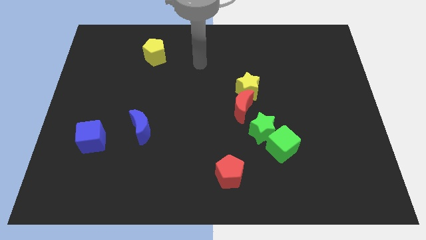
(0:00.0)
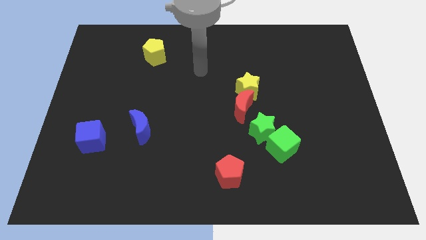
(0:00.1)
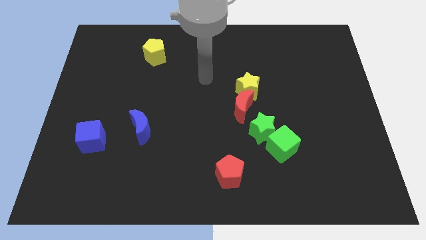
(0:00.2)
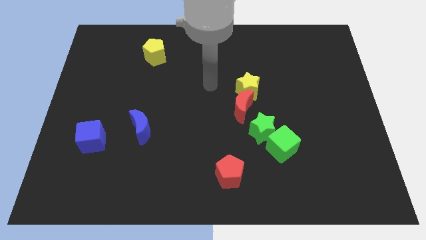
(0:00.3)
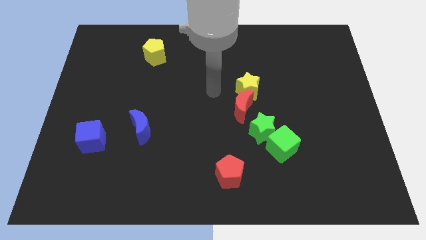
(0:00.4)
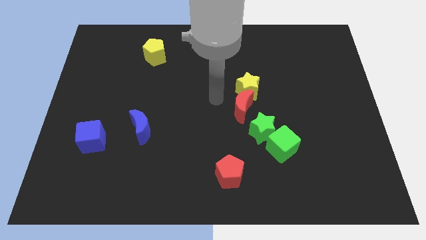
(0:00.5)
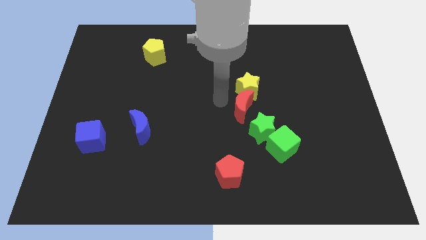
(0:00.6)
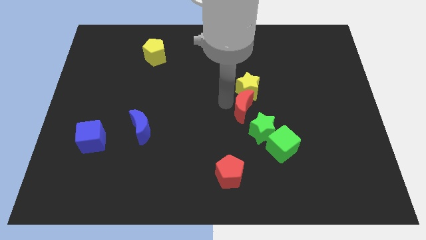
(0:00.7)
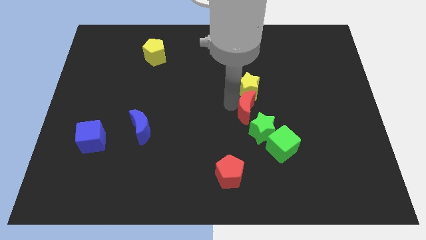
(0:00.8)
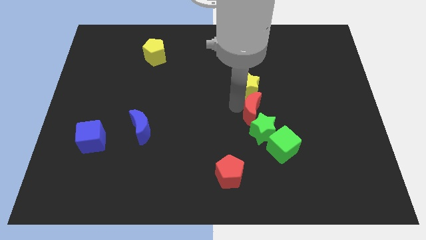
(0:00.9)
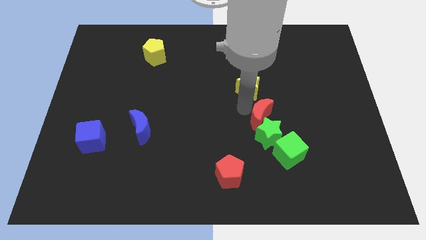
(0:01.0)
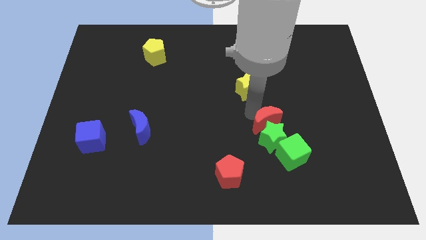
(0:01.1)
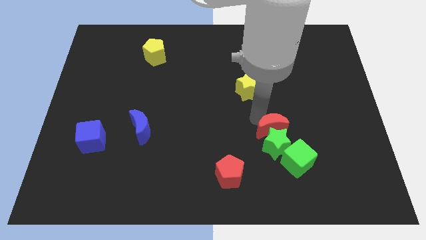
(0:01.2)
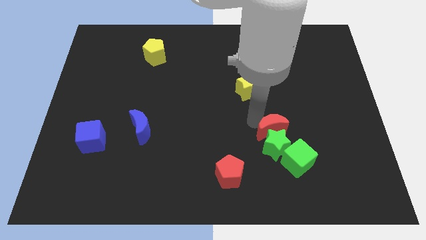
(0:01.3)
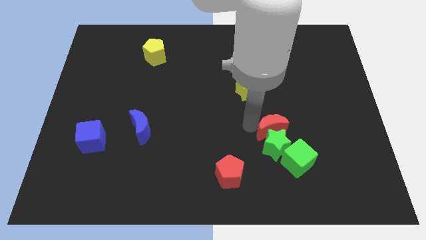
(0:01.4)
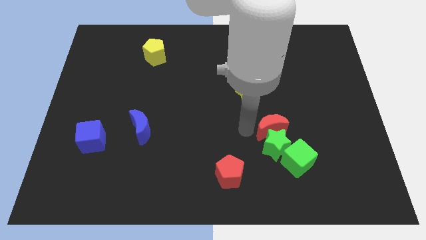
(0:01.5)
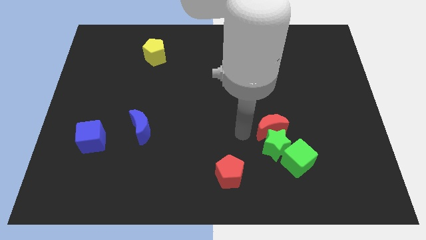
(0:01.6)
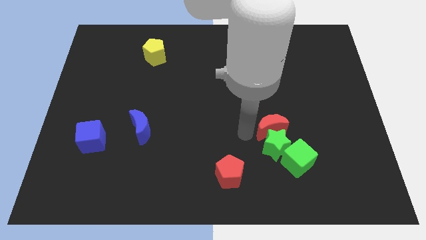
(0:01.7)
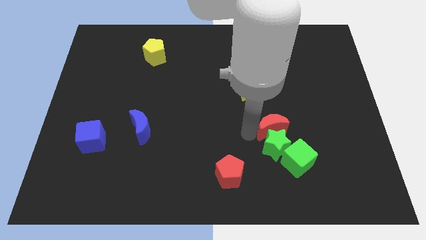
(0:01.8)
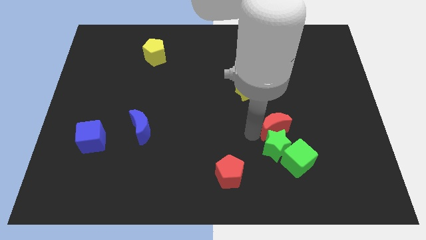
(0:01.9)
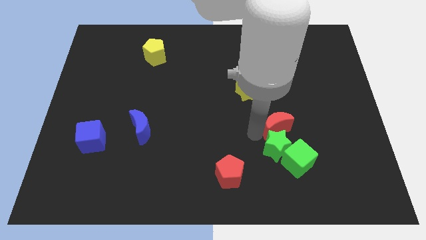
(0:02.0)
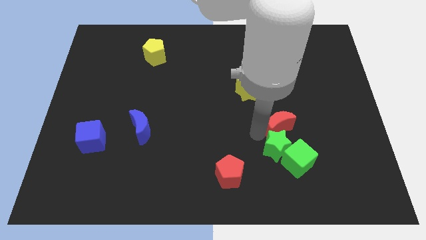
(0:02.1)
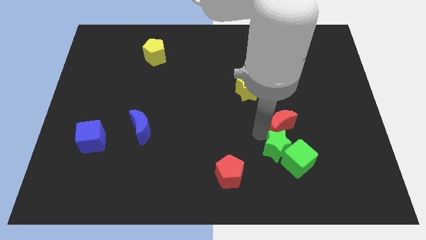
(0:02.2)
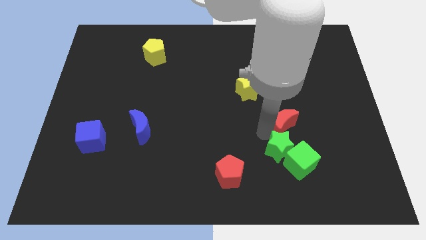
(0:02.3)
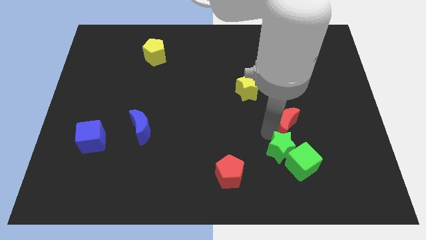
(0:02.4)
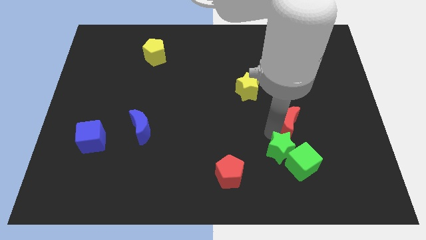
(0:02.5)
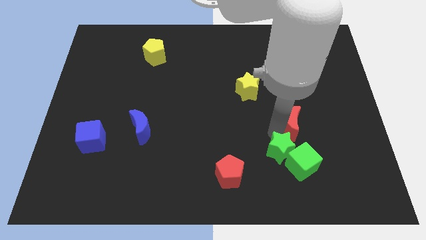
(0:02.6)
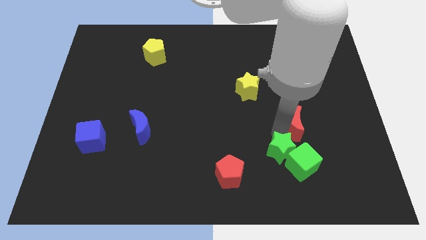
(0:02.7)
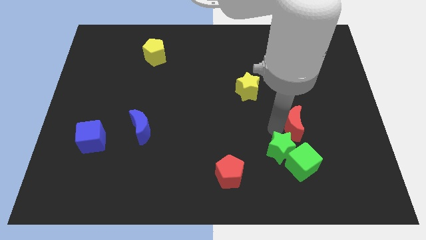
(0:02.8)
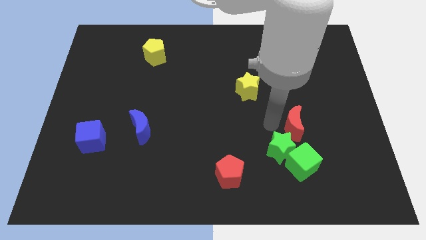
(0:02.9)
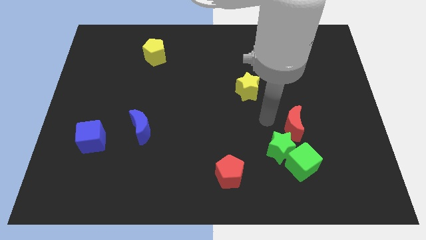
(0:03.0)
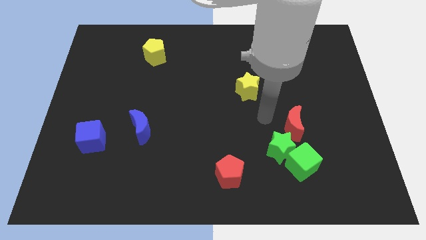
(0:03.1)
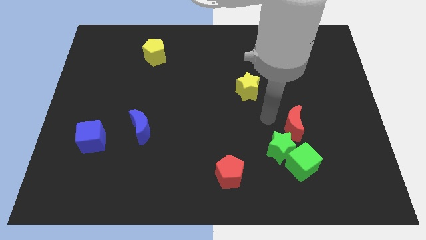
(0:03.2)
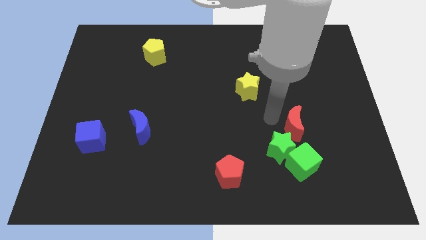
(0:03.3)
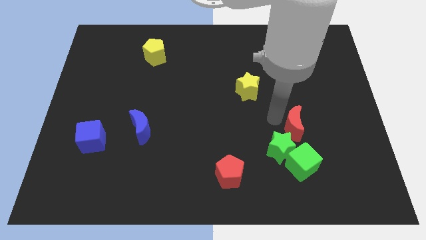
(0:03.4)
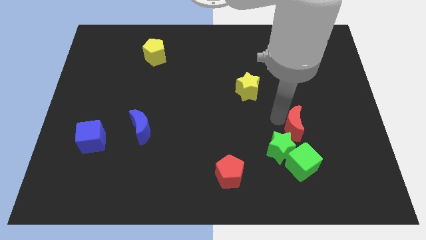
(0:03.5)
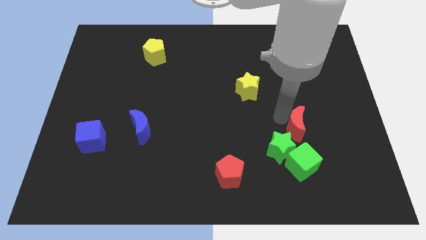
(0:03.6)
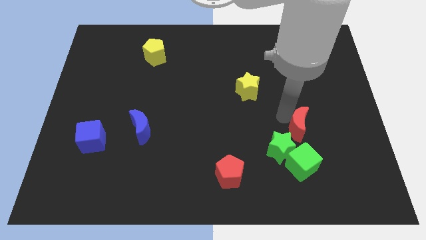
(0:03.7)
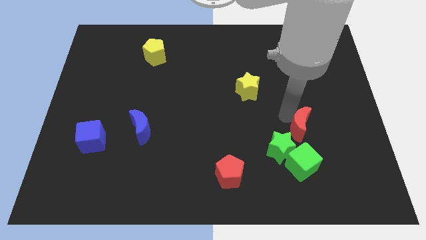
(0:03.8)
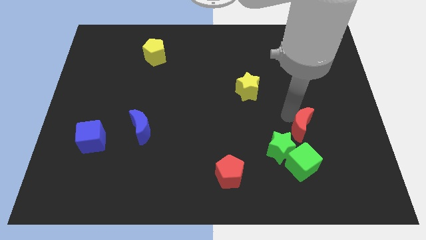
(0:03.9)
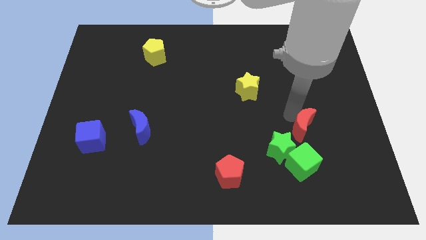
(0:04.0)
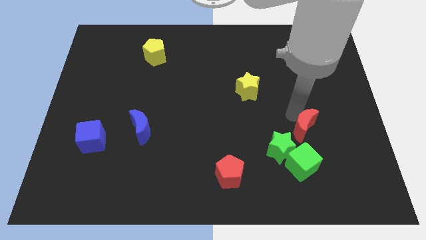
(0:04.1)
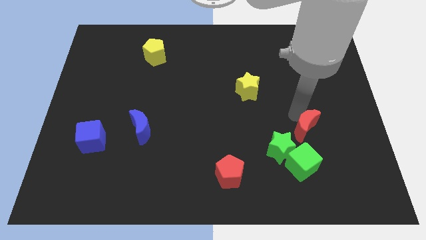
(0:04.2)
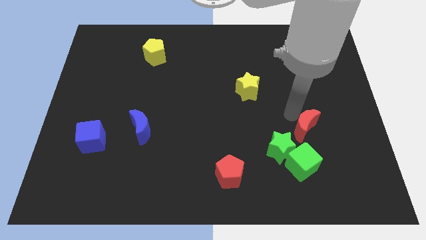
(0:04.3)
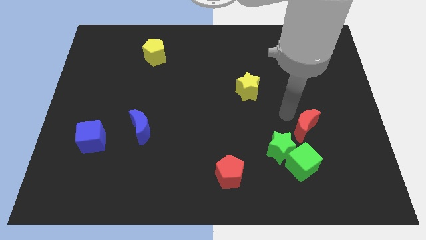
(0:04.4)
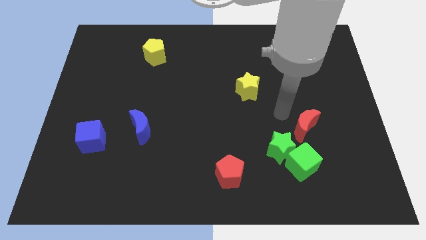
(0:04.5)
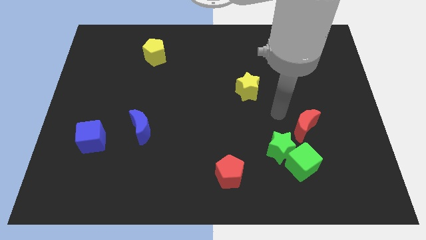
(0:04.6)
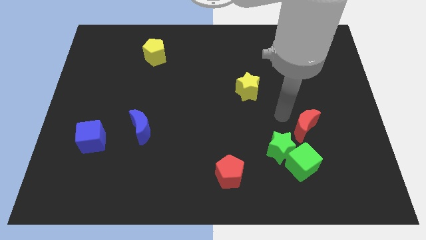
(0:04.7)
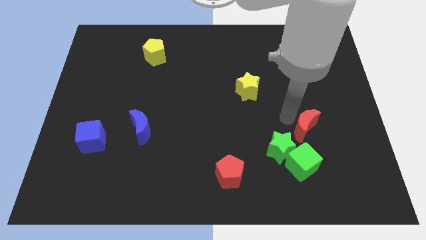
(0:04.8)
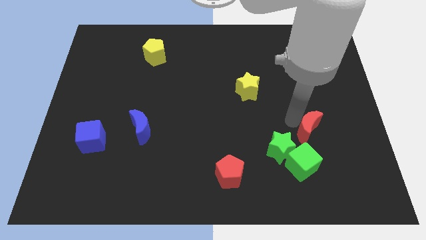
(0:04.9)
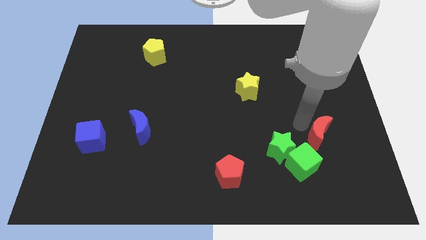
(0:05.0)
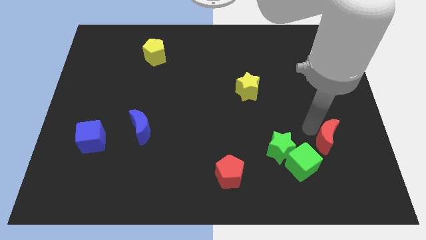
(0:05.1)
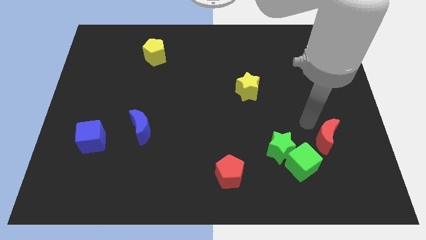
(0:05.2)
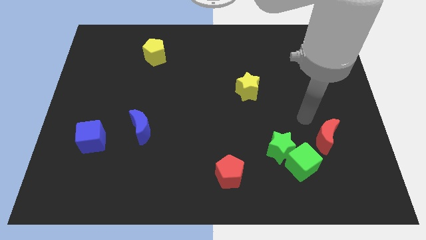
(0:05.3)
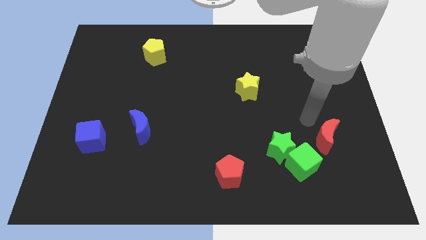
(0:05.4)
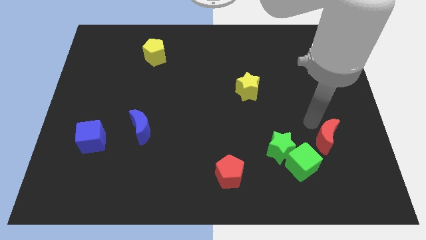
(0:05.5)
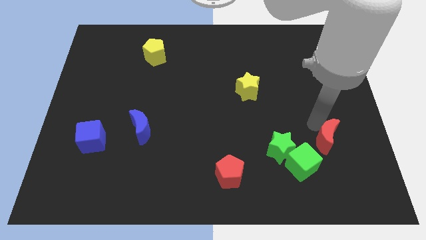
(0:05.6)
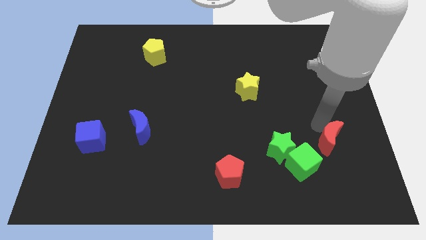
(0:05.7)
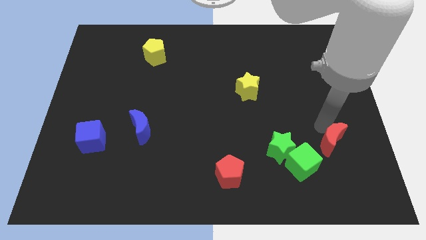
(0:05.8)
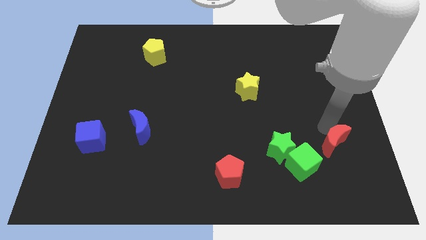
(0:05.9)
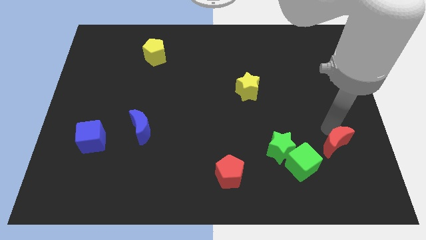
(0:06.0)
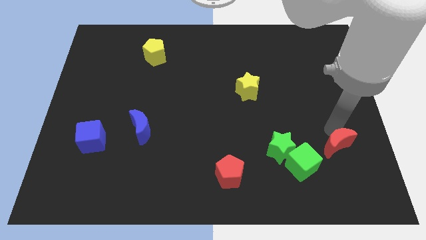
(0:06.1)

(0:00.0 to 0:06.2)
put the red moon right of the green cube

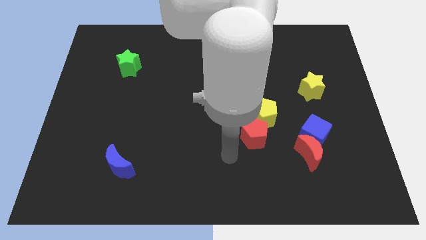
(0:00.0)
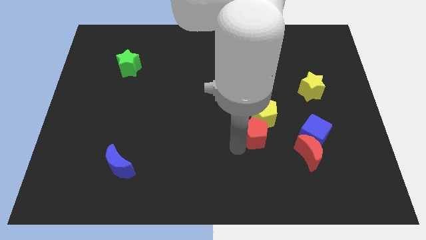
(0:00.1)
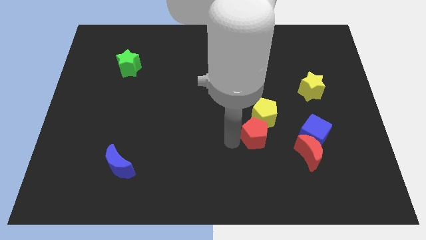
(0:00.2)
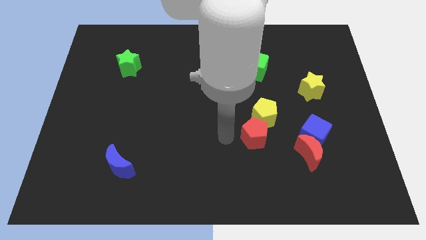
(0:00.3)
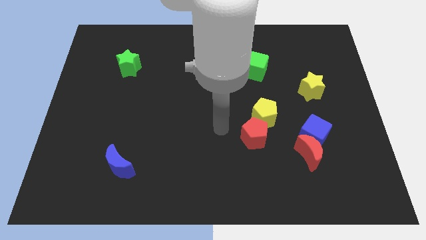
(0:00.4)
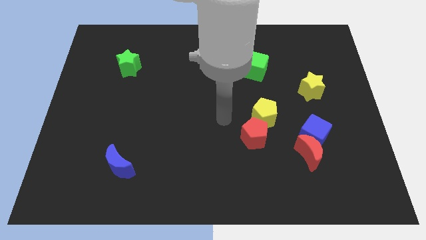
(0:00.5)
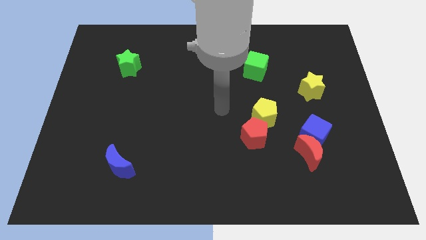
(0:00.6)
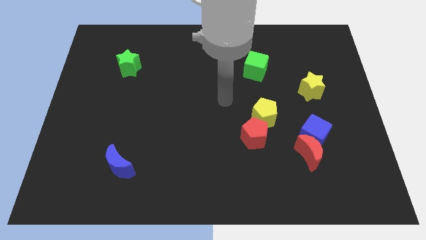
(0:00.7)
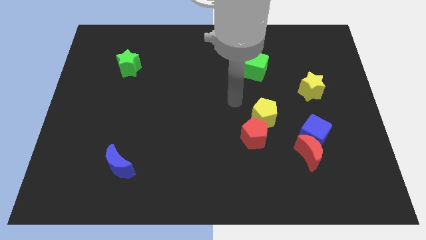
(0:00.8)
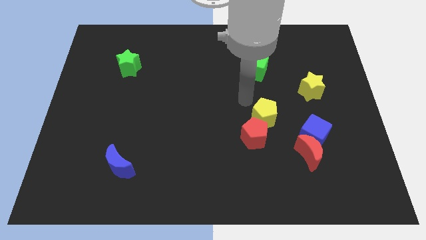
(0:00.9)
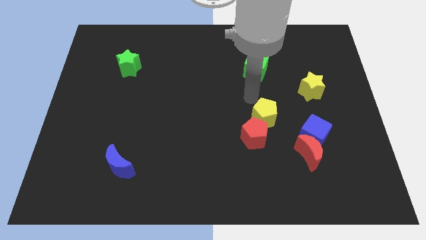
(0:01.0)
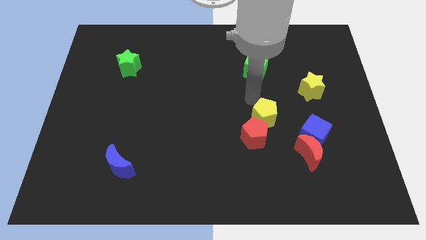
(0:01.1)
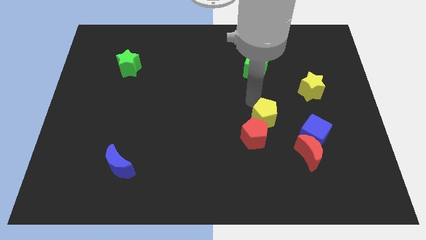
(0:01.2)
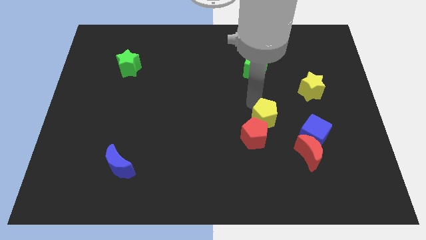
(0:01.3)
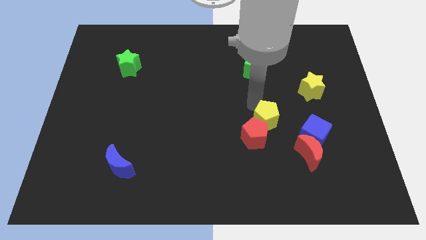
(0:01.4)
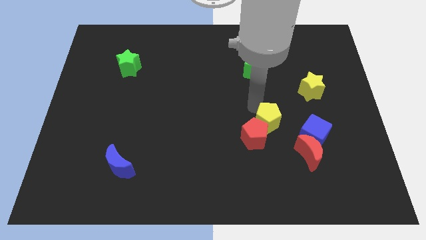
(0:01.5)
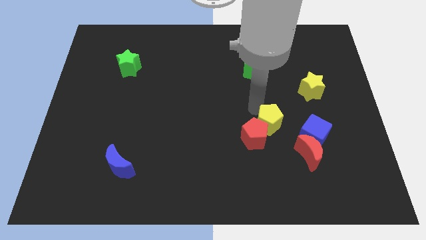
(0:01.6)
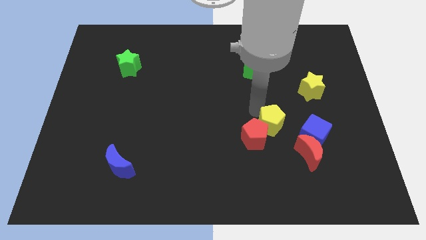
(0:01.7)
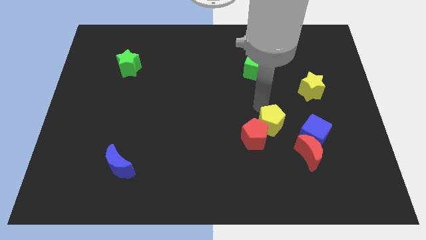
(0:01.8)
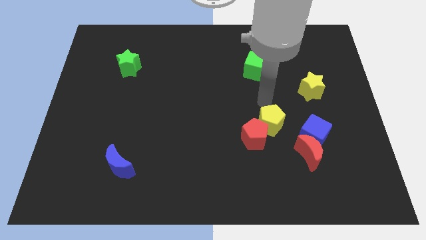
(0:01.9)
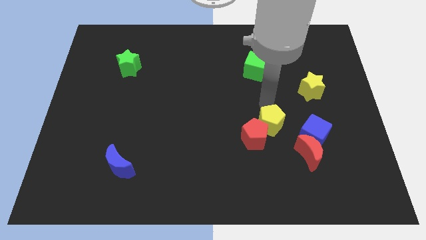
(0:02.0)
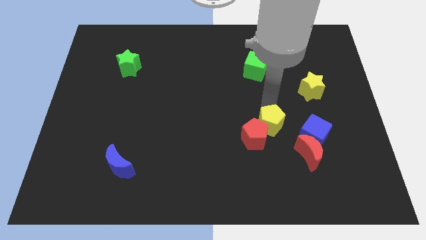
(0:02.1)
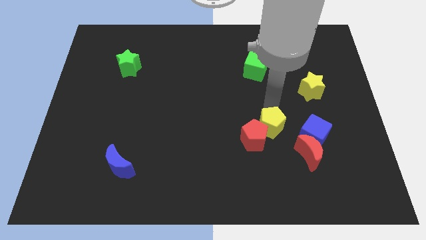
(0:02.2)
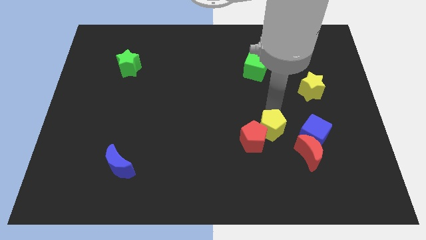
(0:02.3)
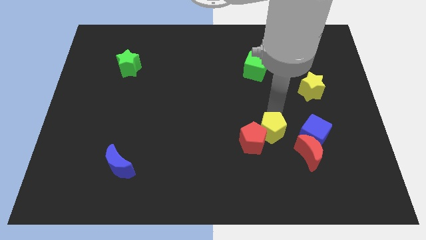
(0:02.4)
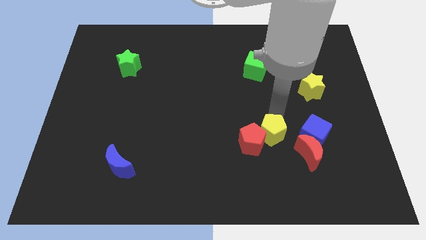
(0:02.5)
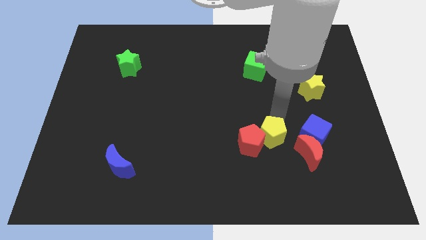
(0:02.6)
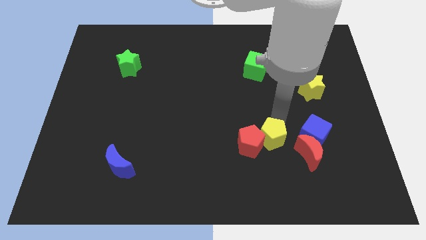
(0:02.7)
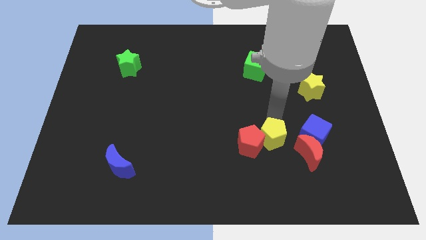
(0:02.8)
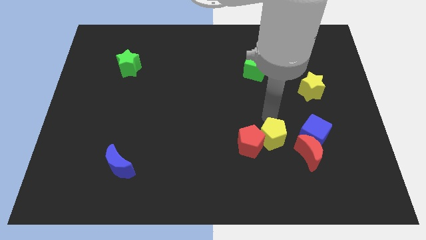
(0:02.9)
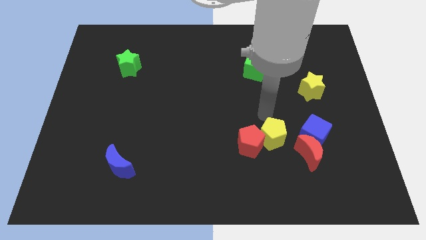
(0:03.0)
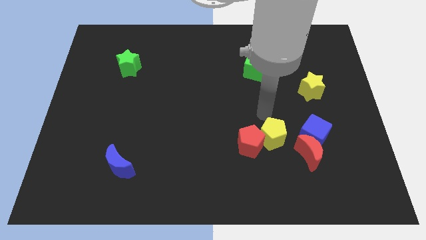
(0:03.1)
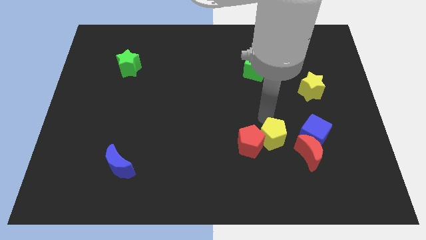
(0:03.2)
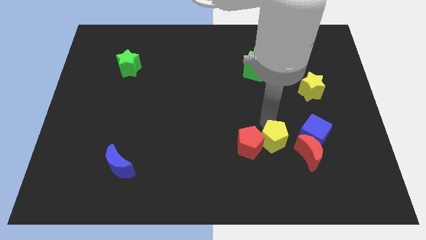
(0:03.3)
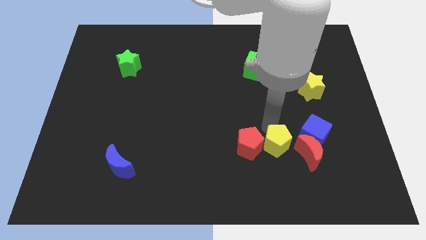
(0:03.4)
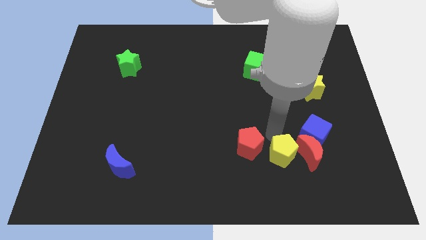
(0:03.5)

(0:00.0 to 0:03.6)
put the yellow pentagon diagonally down and to the left of the red moon
